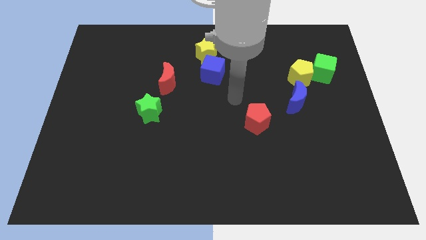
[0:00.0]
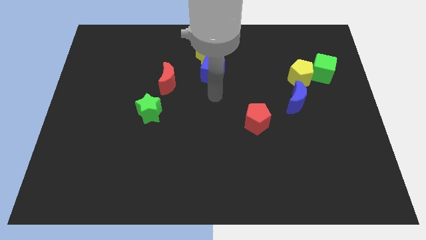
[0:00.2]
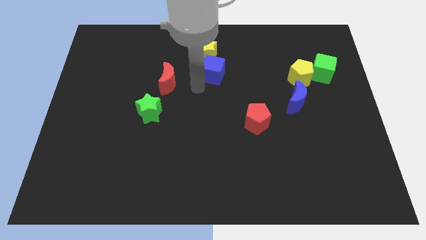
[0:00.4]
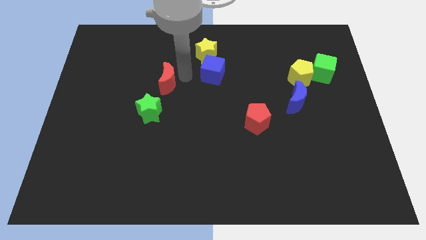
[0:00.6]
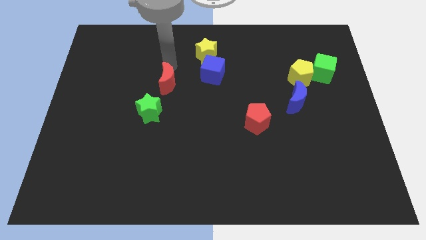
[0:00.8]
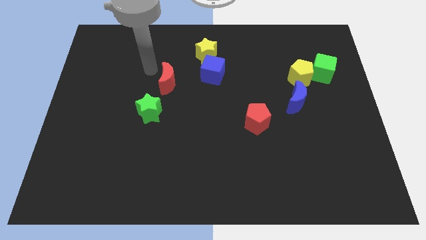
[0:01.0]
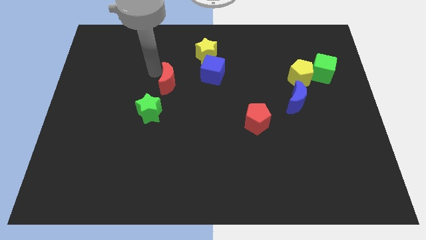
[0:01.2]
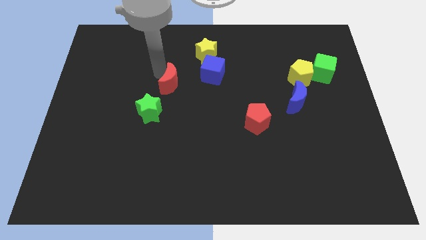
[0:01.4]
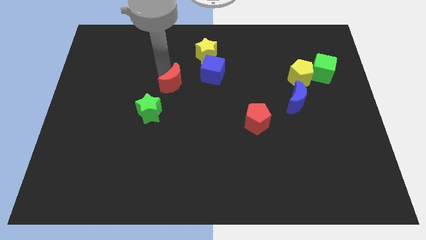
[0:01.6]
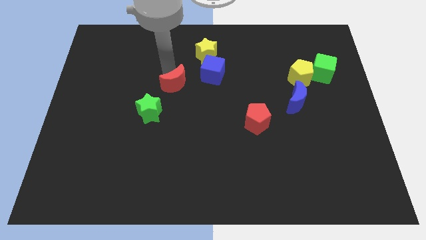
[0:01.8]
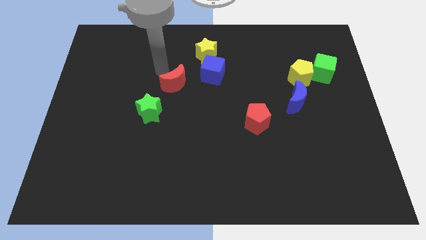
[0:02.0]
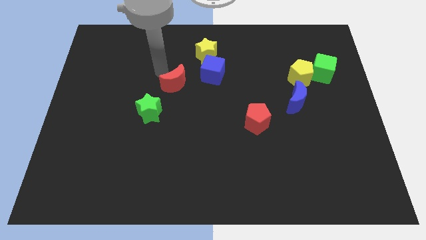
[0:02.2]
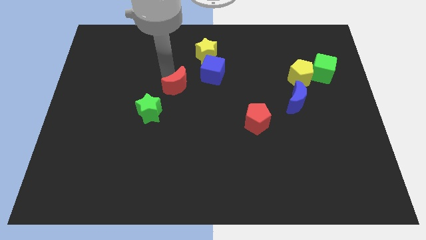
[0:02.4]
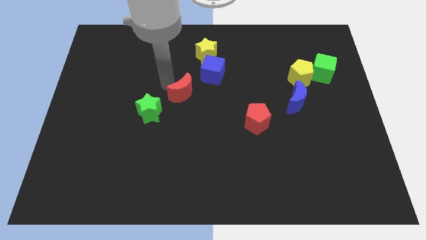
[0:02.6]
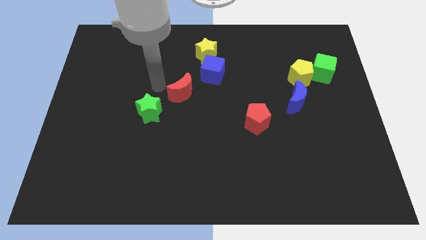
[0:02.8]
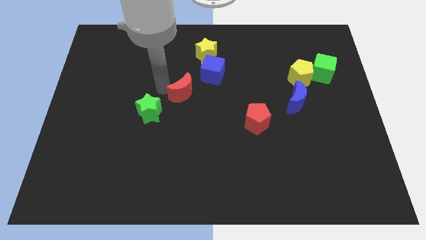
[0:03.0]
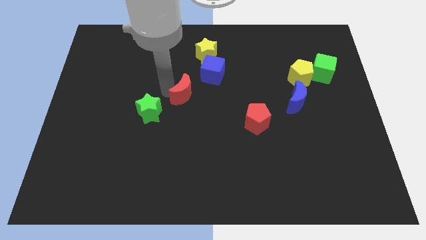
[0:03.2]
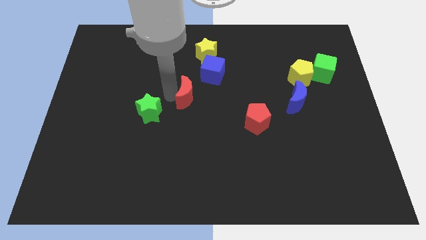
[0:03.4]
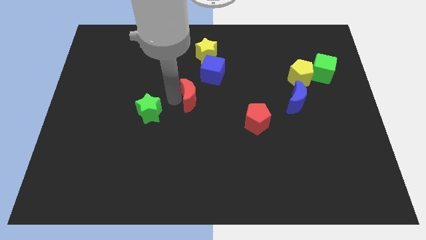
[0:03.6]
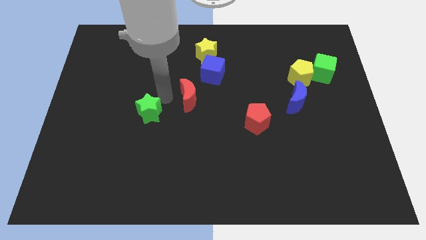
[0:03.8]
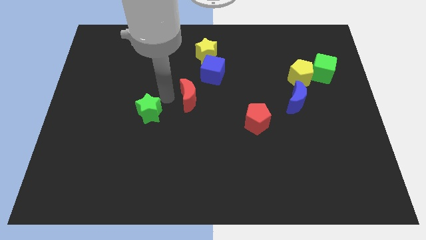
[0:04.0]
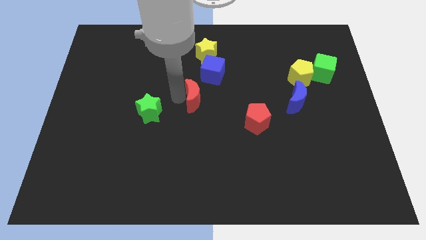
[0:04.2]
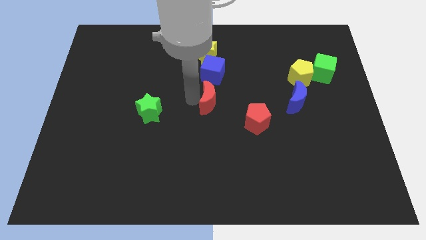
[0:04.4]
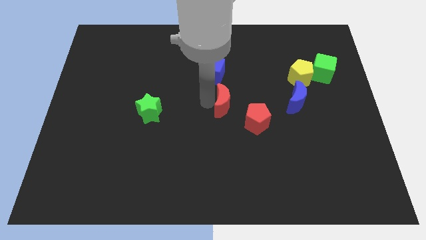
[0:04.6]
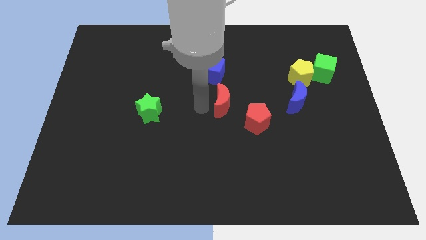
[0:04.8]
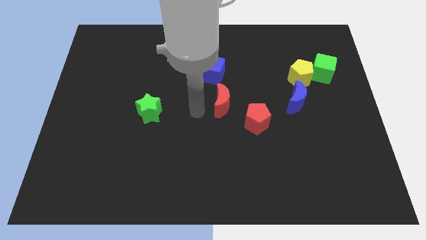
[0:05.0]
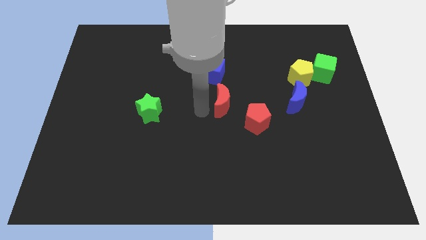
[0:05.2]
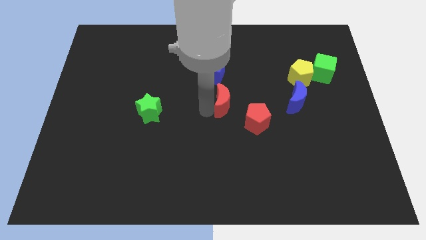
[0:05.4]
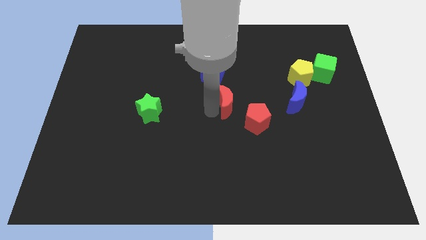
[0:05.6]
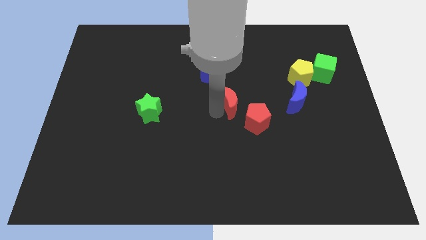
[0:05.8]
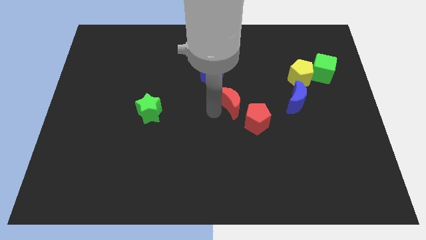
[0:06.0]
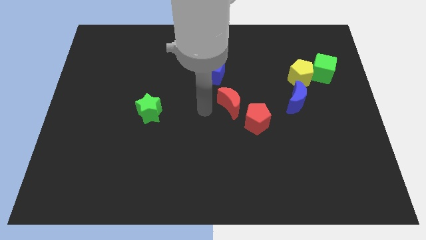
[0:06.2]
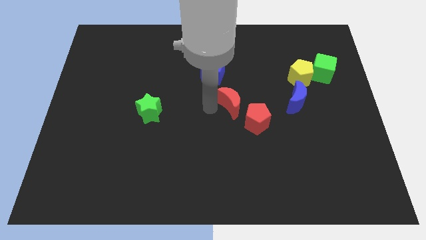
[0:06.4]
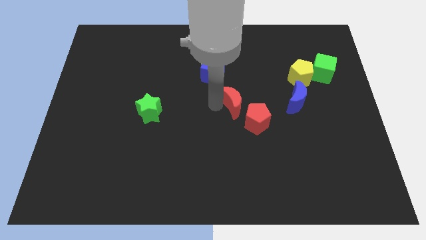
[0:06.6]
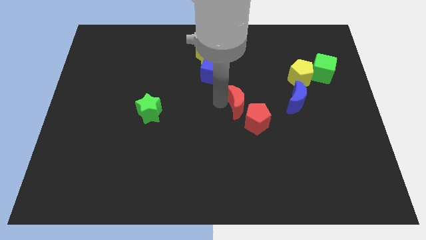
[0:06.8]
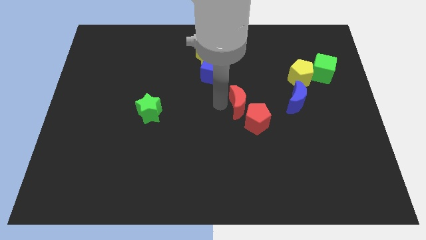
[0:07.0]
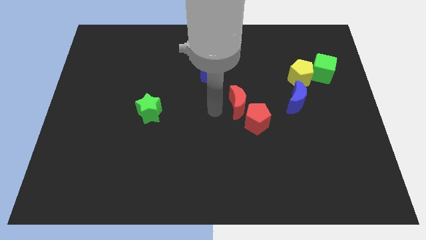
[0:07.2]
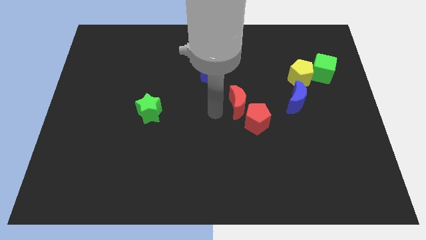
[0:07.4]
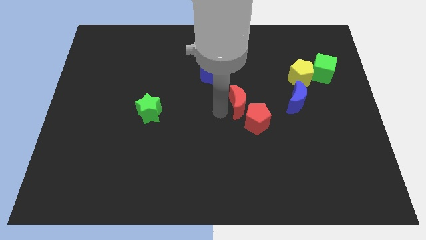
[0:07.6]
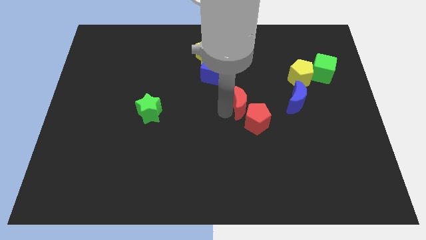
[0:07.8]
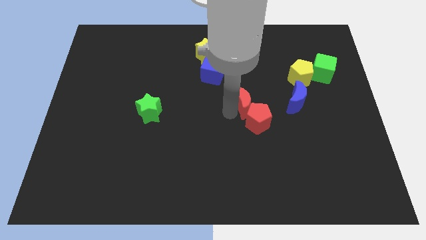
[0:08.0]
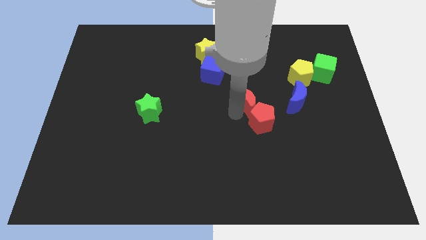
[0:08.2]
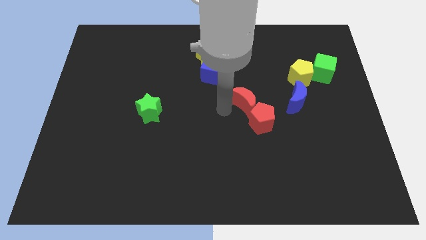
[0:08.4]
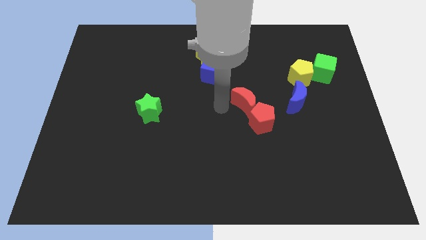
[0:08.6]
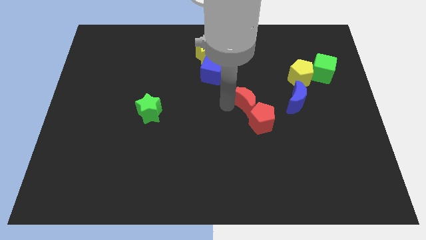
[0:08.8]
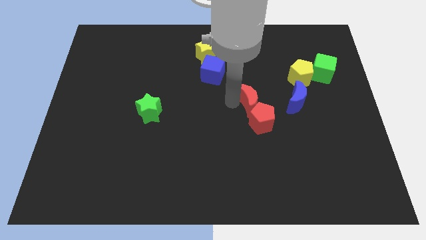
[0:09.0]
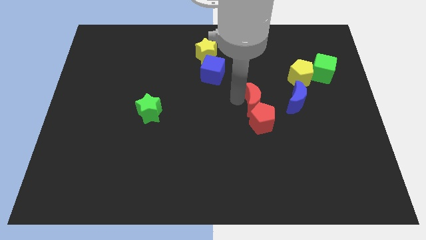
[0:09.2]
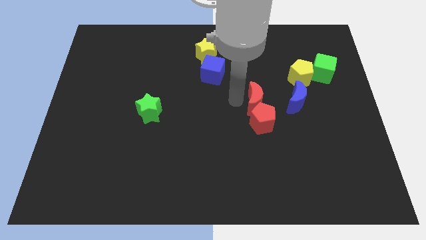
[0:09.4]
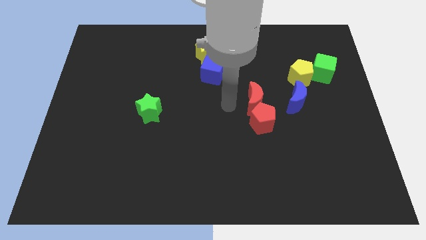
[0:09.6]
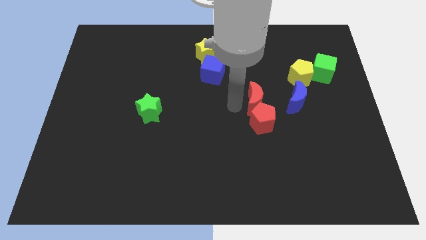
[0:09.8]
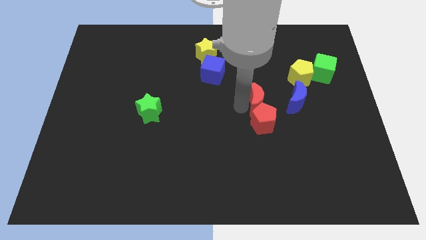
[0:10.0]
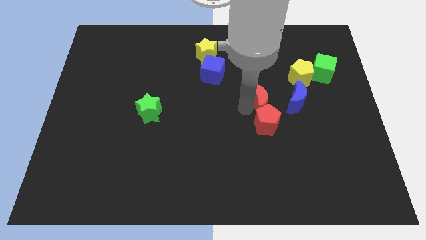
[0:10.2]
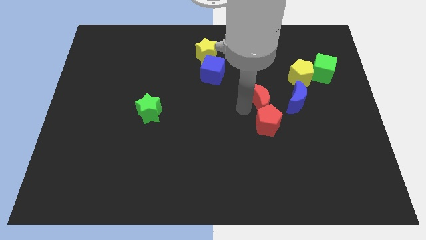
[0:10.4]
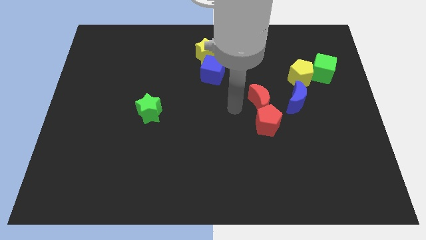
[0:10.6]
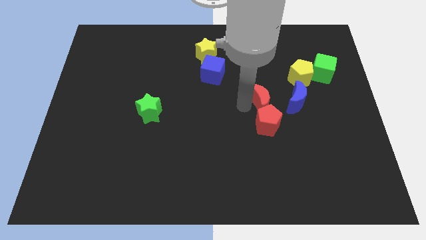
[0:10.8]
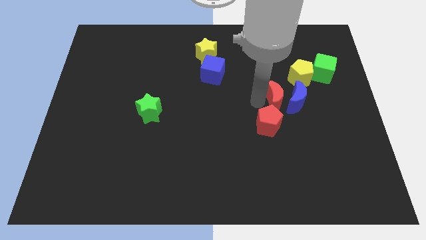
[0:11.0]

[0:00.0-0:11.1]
push the red moon towards the blue moon

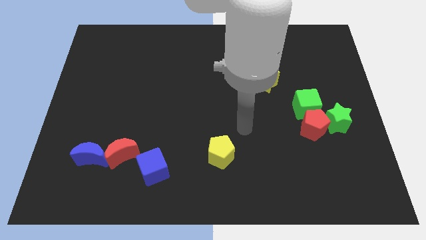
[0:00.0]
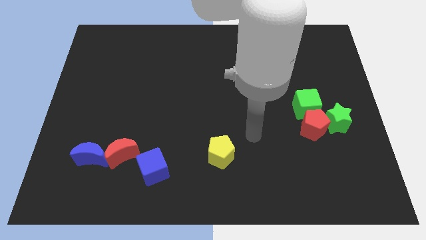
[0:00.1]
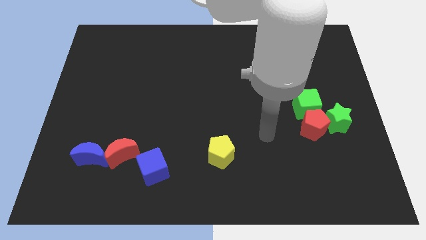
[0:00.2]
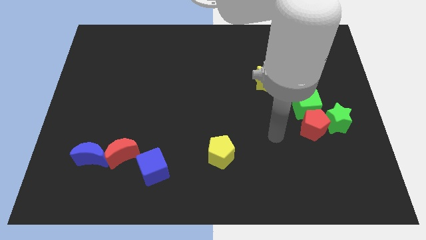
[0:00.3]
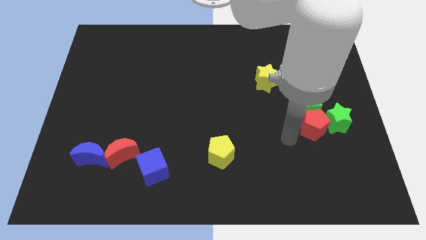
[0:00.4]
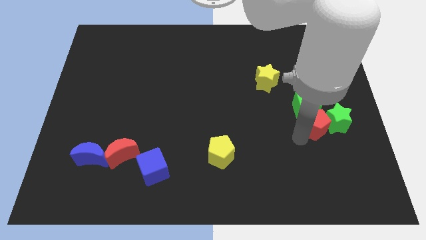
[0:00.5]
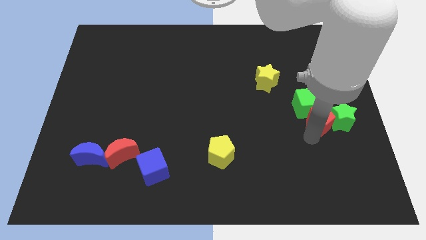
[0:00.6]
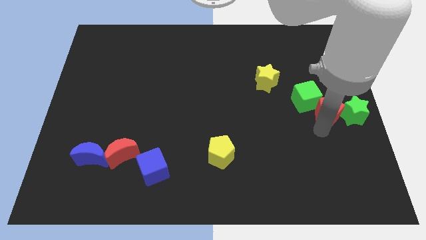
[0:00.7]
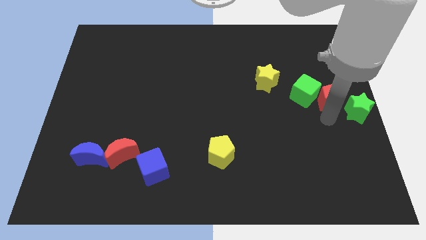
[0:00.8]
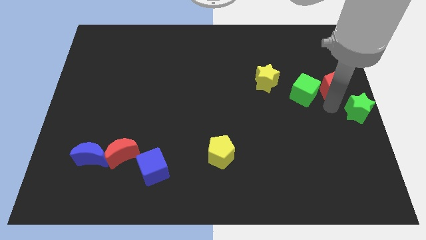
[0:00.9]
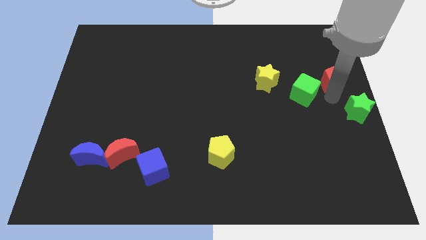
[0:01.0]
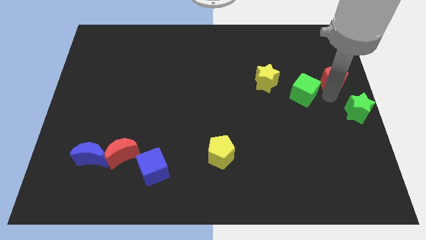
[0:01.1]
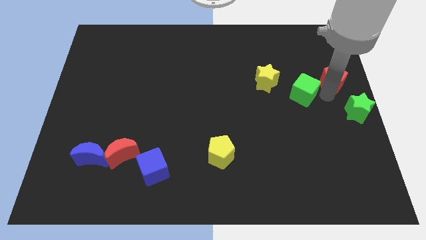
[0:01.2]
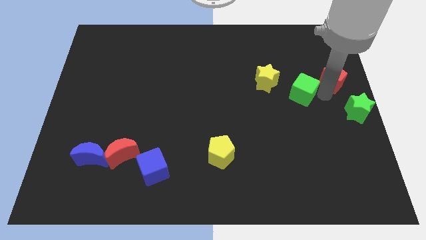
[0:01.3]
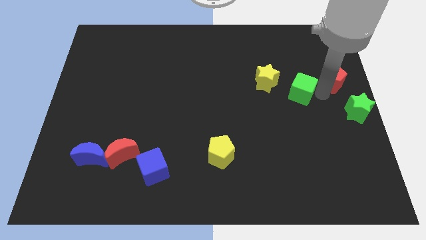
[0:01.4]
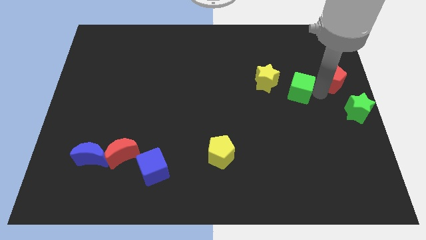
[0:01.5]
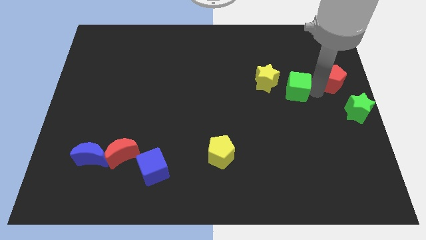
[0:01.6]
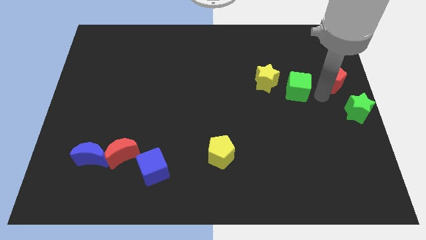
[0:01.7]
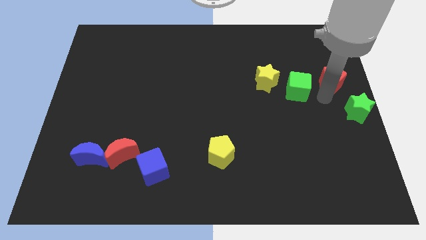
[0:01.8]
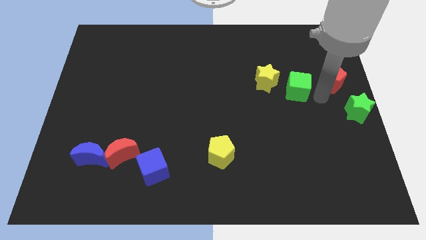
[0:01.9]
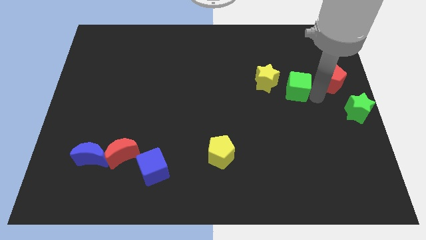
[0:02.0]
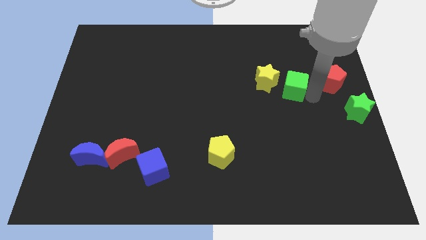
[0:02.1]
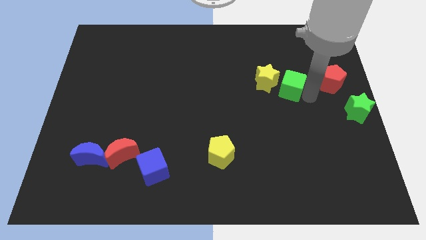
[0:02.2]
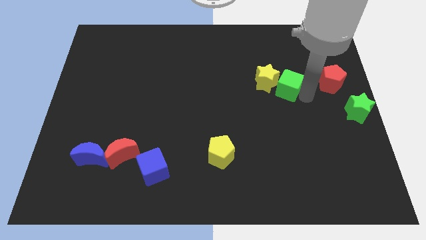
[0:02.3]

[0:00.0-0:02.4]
move the green cube towards the yellow star
